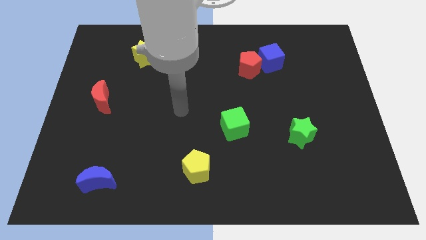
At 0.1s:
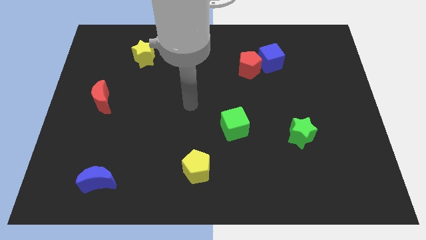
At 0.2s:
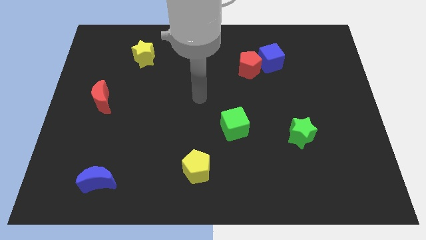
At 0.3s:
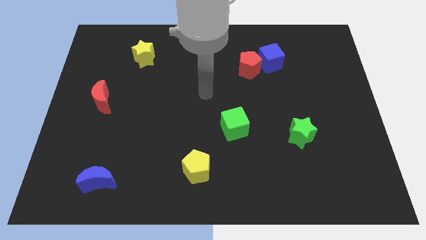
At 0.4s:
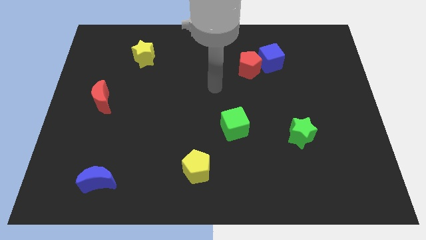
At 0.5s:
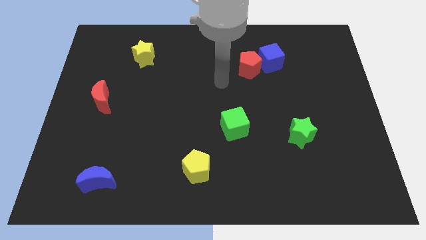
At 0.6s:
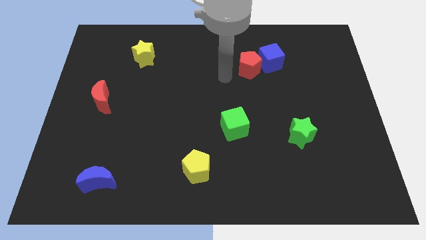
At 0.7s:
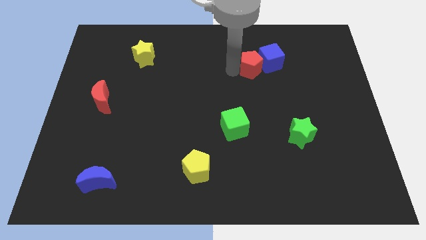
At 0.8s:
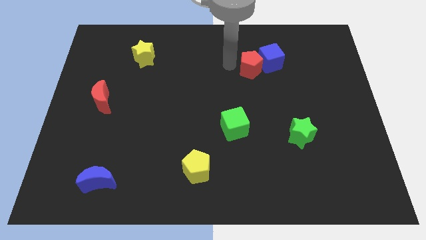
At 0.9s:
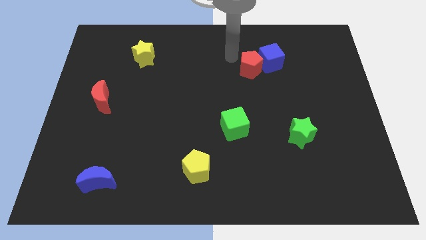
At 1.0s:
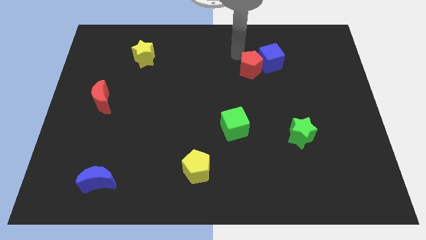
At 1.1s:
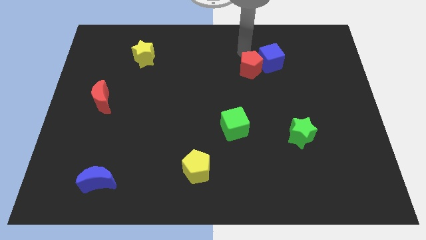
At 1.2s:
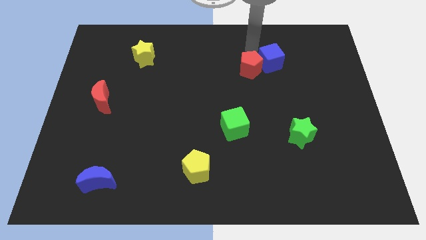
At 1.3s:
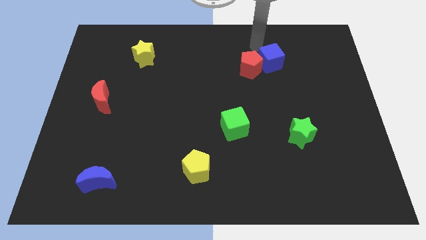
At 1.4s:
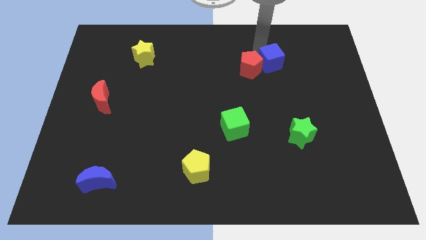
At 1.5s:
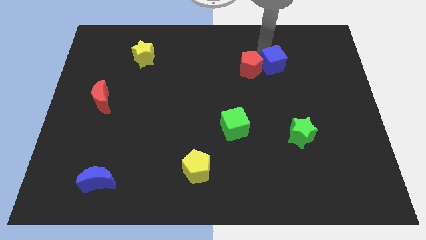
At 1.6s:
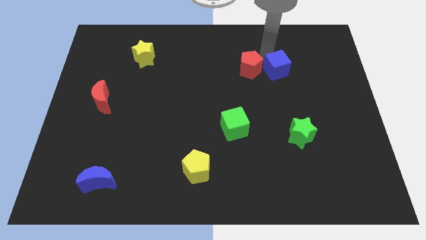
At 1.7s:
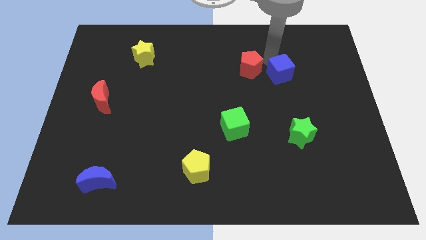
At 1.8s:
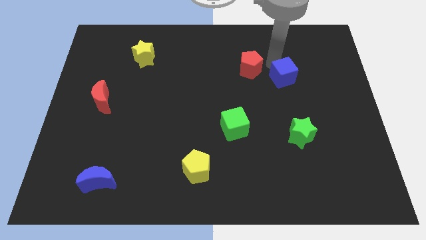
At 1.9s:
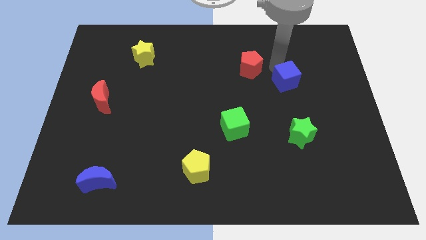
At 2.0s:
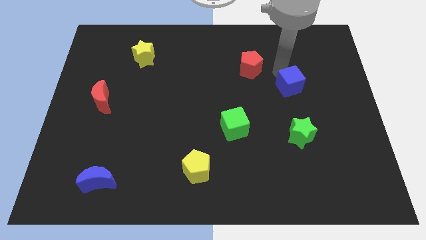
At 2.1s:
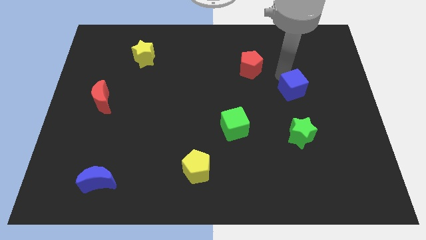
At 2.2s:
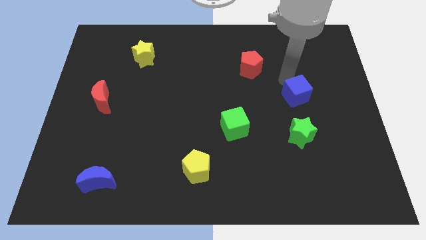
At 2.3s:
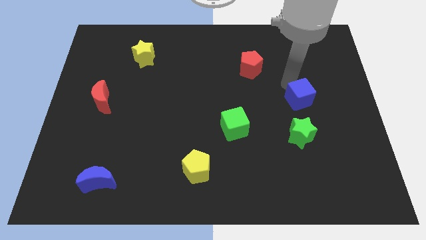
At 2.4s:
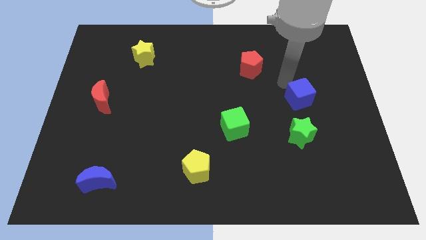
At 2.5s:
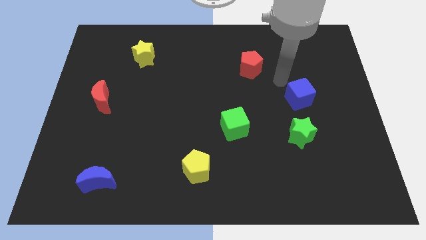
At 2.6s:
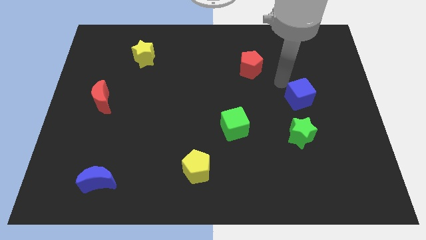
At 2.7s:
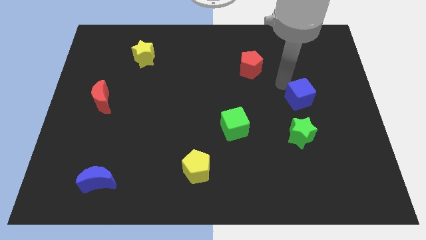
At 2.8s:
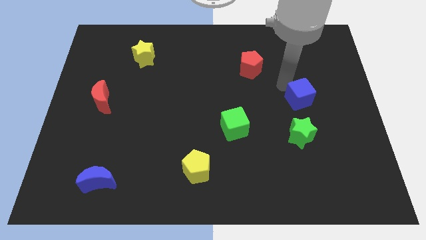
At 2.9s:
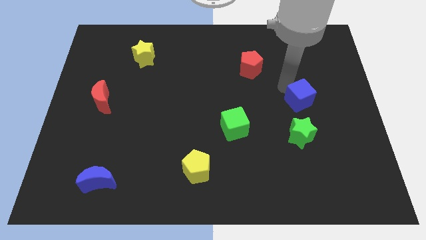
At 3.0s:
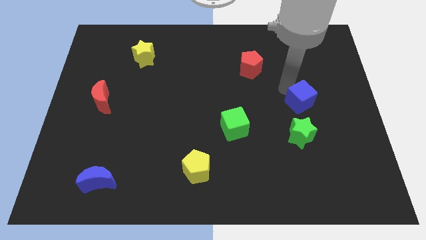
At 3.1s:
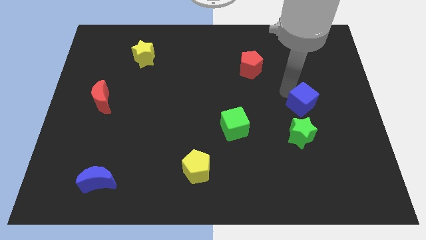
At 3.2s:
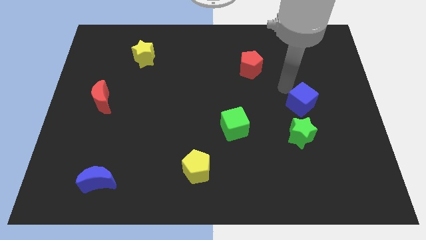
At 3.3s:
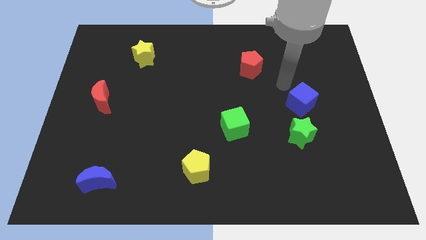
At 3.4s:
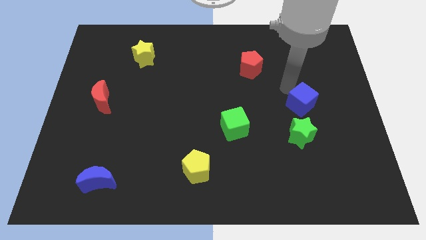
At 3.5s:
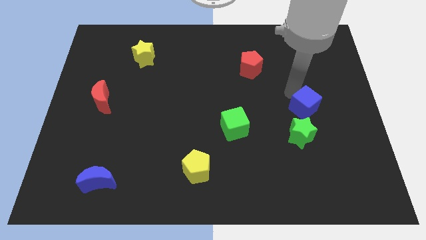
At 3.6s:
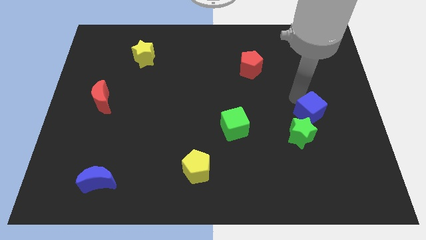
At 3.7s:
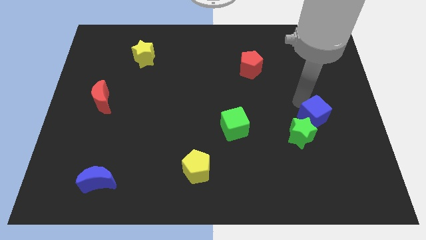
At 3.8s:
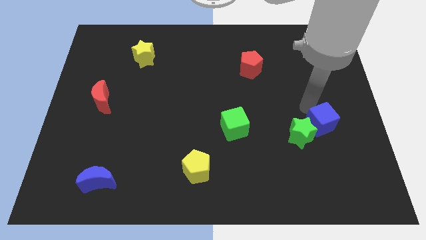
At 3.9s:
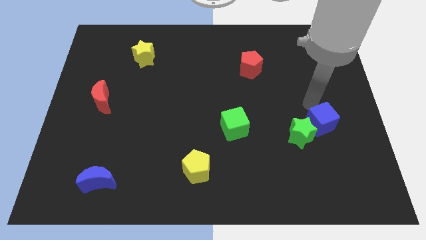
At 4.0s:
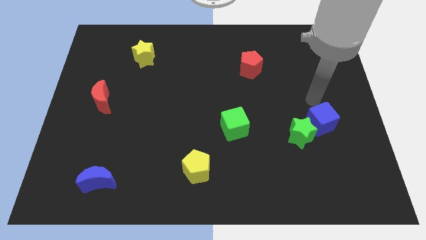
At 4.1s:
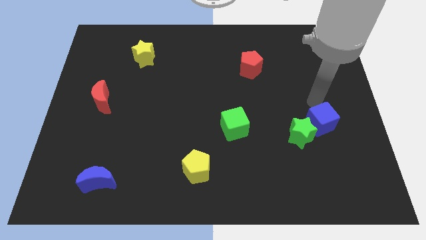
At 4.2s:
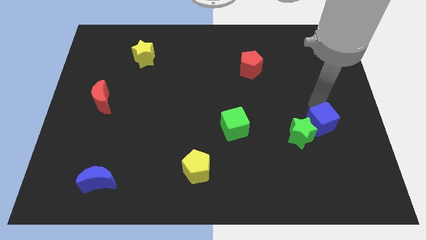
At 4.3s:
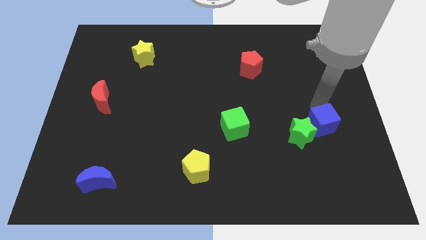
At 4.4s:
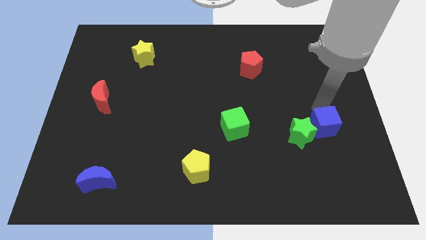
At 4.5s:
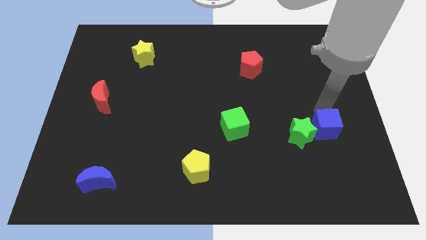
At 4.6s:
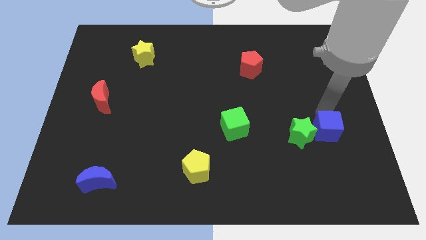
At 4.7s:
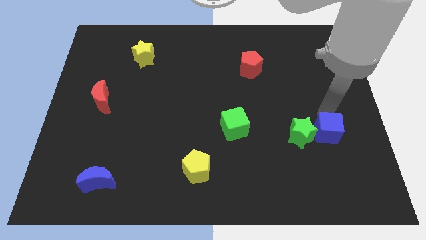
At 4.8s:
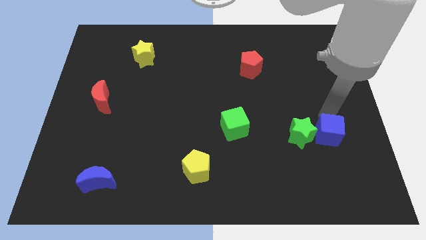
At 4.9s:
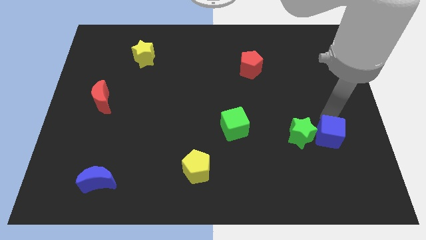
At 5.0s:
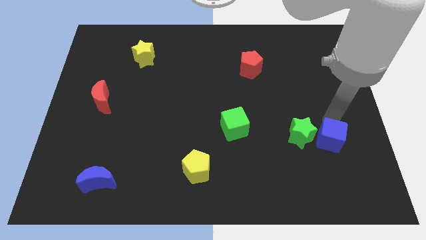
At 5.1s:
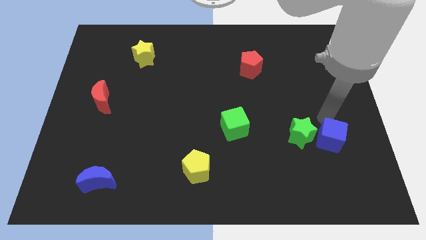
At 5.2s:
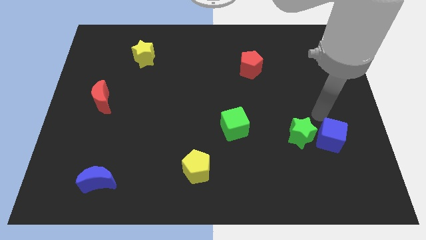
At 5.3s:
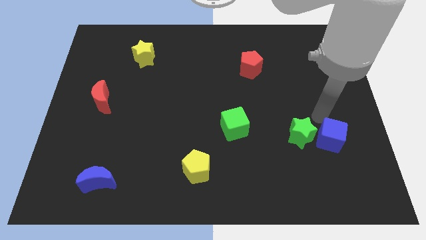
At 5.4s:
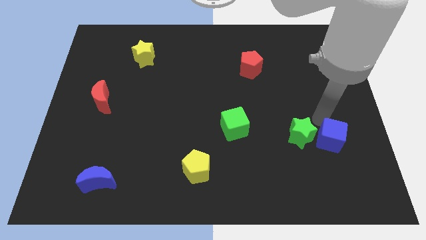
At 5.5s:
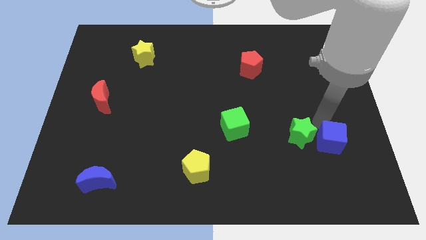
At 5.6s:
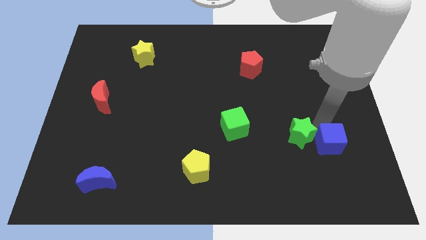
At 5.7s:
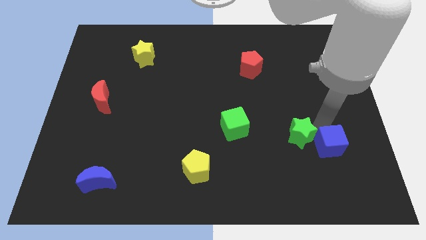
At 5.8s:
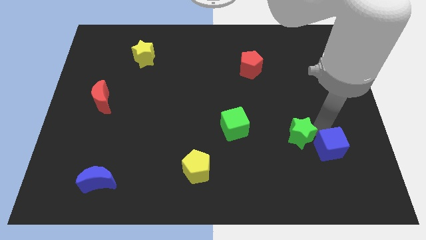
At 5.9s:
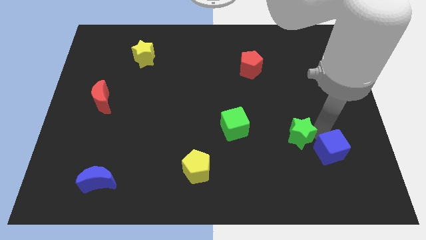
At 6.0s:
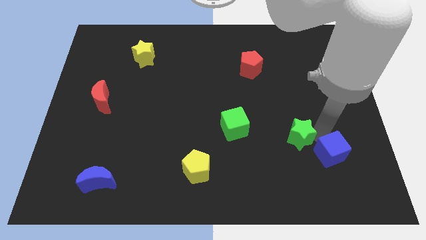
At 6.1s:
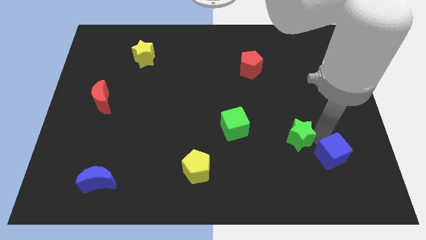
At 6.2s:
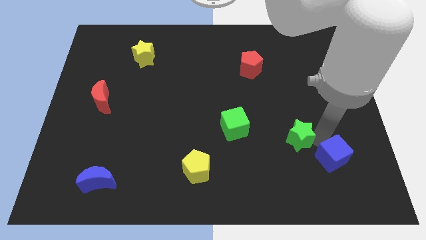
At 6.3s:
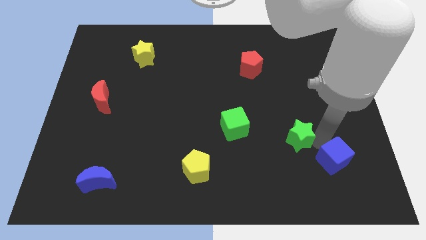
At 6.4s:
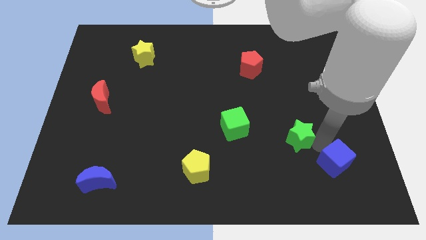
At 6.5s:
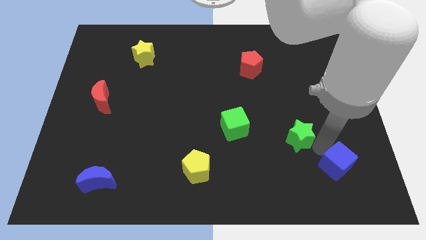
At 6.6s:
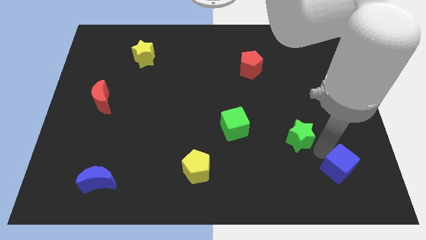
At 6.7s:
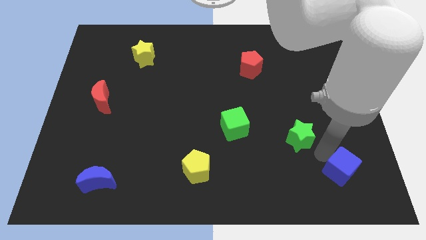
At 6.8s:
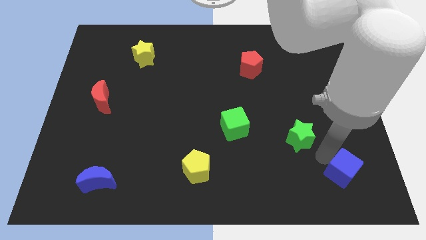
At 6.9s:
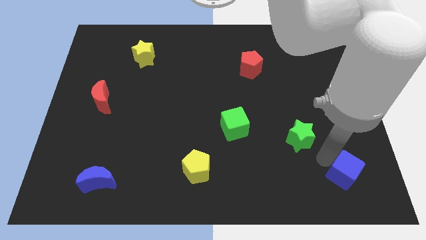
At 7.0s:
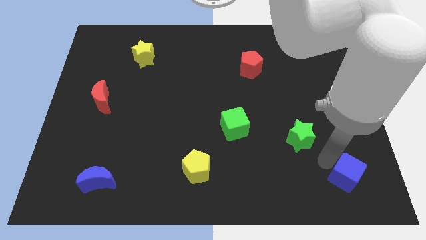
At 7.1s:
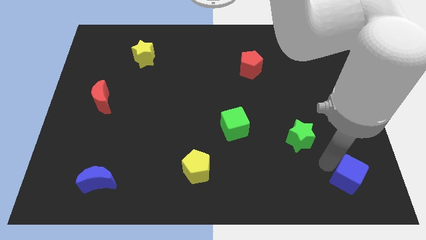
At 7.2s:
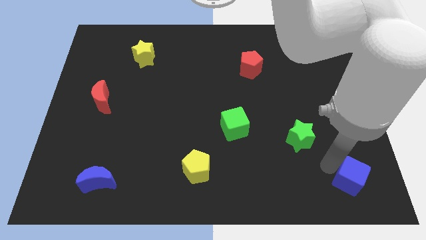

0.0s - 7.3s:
put the blue cube to the bottom right of the board
